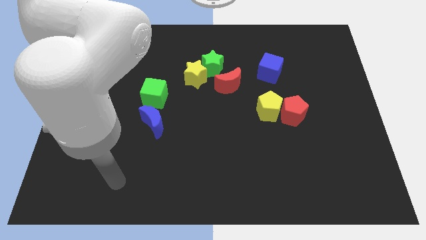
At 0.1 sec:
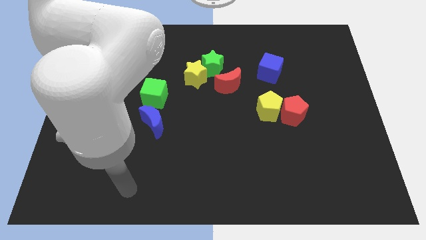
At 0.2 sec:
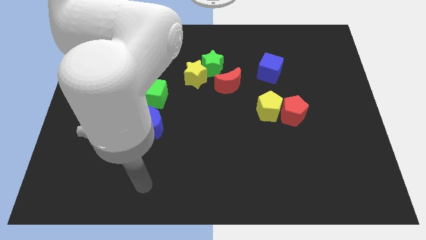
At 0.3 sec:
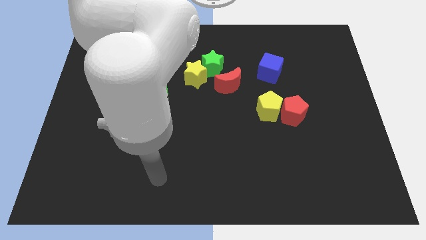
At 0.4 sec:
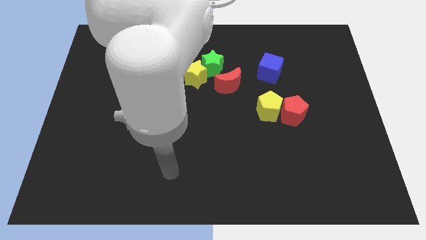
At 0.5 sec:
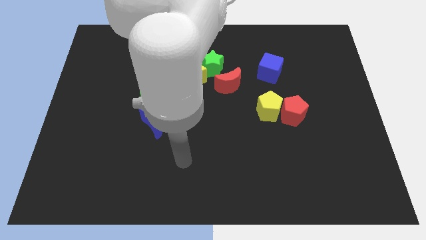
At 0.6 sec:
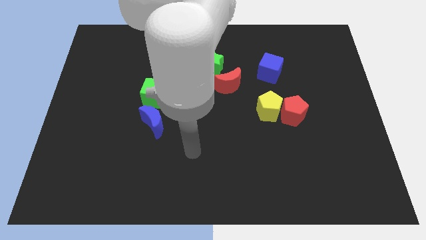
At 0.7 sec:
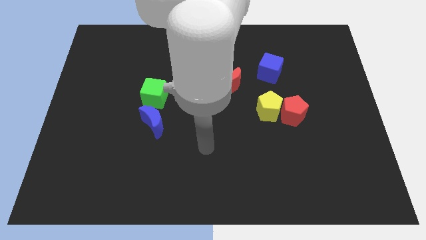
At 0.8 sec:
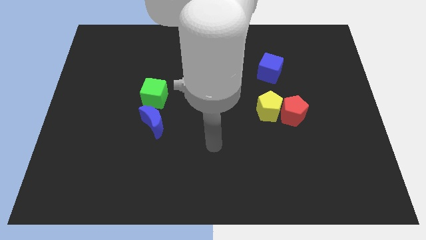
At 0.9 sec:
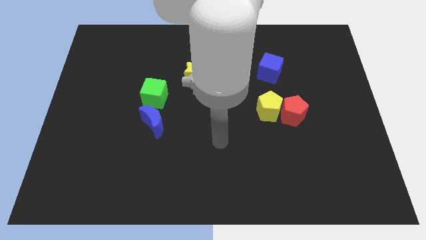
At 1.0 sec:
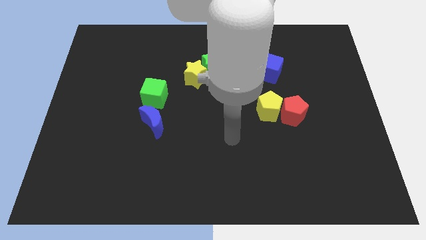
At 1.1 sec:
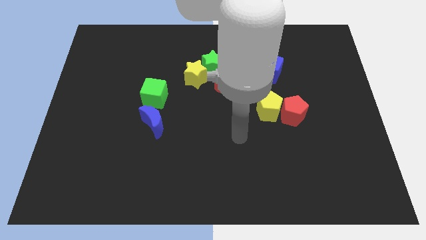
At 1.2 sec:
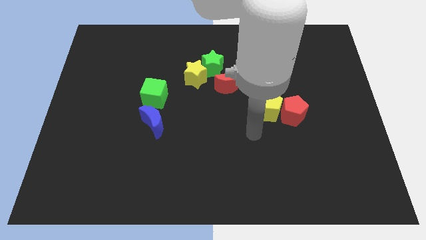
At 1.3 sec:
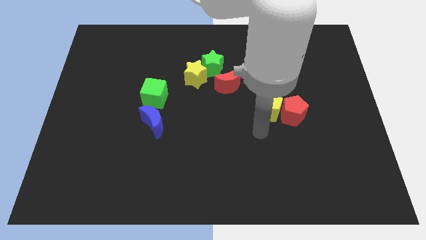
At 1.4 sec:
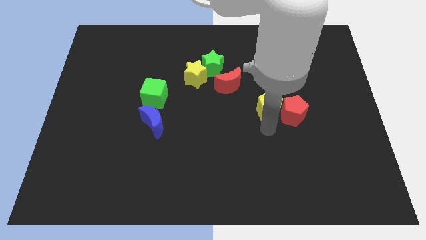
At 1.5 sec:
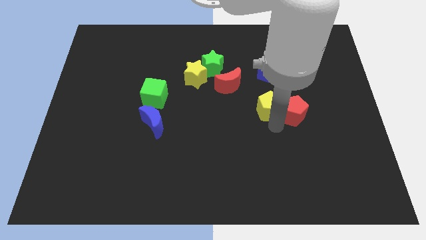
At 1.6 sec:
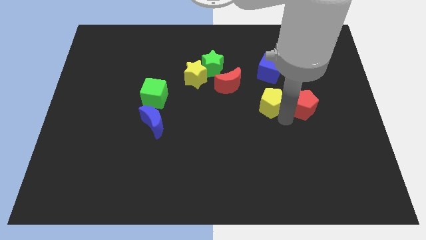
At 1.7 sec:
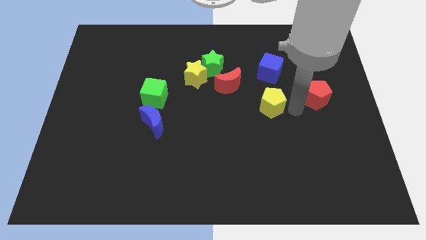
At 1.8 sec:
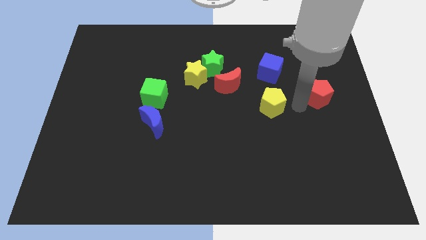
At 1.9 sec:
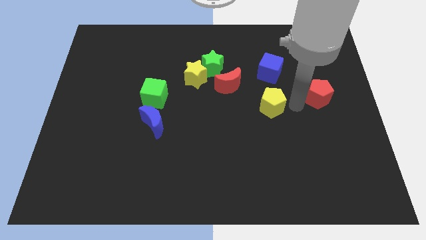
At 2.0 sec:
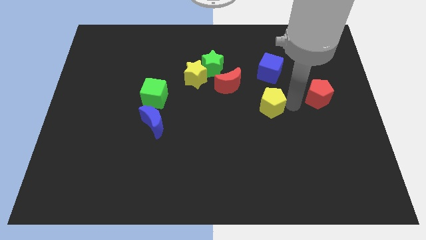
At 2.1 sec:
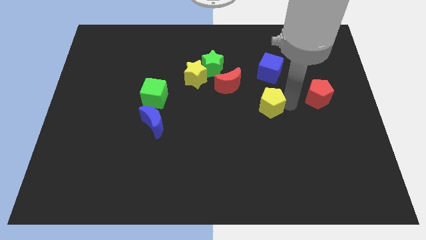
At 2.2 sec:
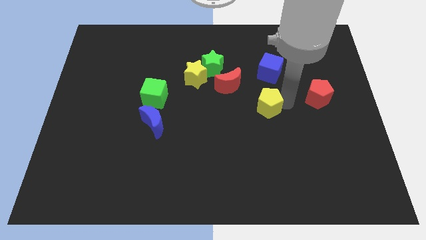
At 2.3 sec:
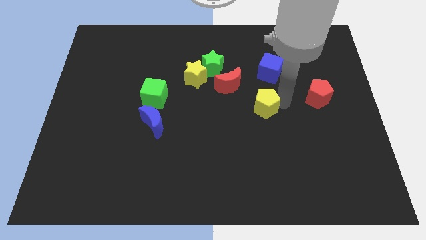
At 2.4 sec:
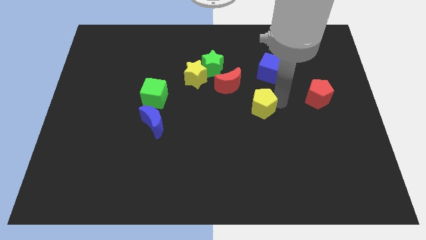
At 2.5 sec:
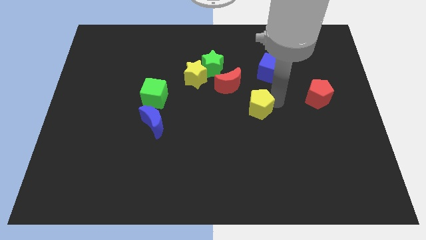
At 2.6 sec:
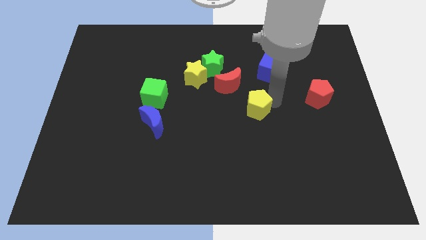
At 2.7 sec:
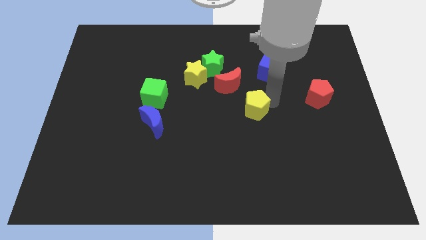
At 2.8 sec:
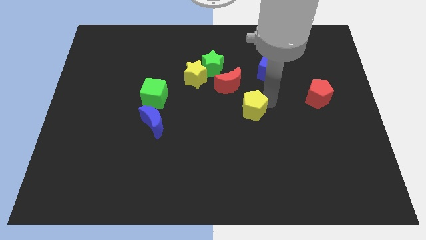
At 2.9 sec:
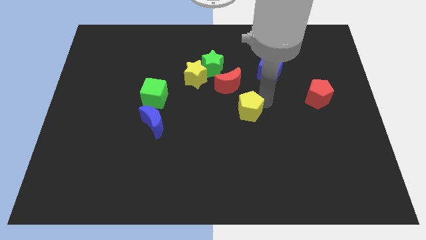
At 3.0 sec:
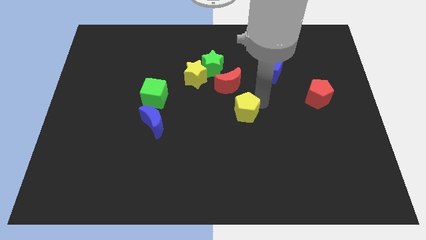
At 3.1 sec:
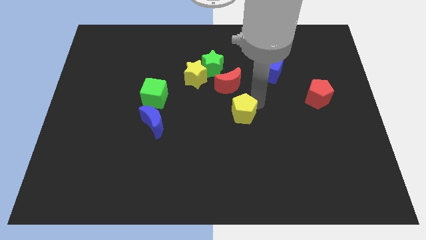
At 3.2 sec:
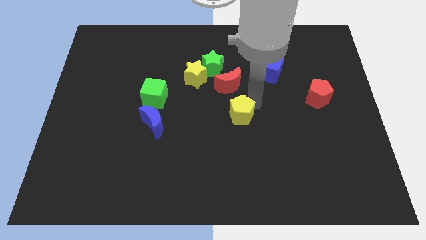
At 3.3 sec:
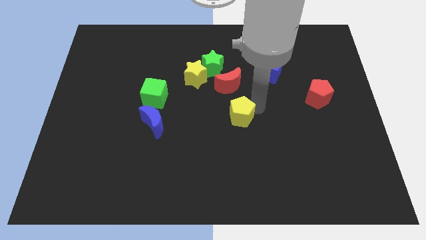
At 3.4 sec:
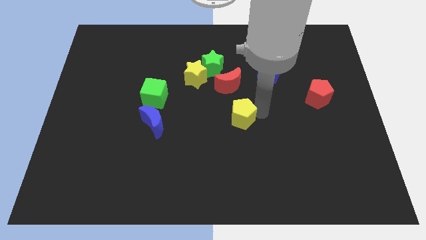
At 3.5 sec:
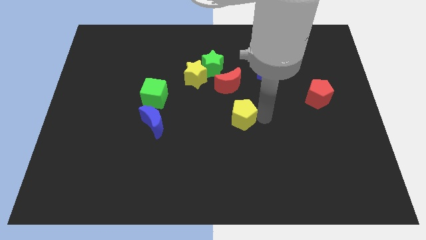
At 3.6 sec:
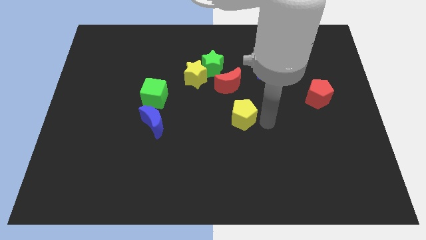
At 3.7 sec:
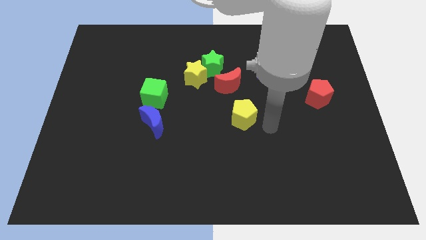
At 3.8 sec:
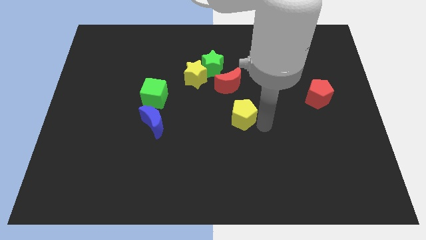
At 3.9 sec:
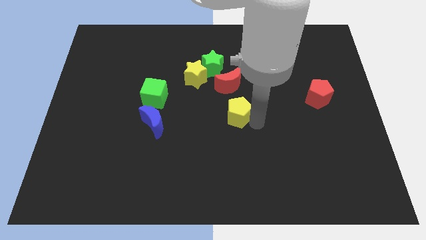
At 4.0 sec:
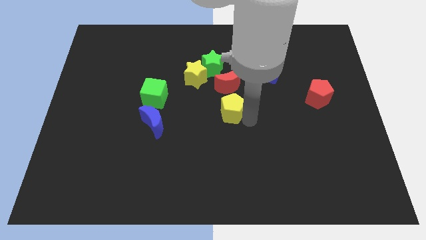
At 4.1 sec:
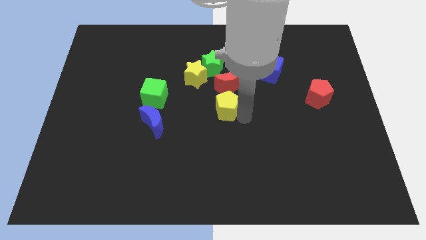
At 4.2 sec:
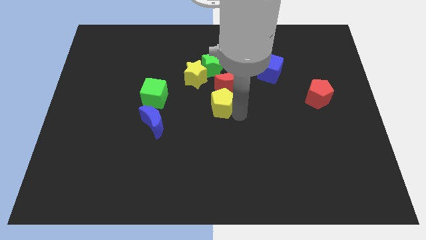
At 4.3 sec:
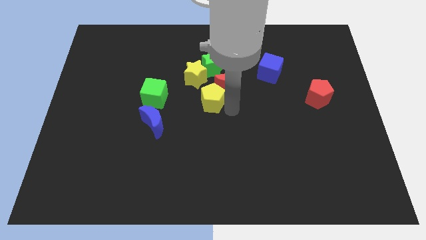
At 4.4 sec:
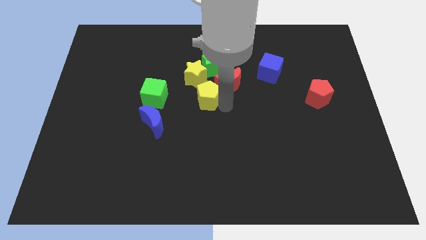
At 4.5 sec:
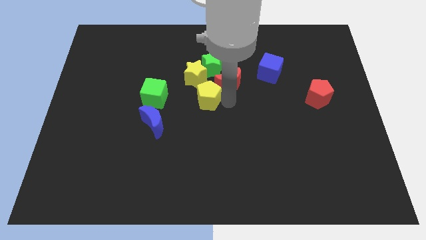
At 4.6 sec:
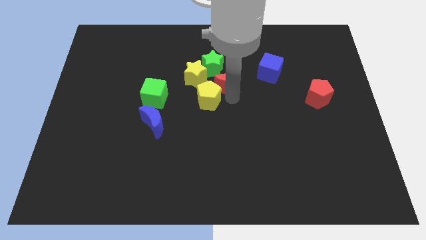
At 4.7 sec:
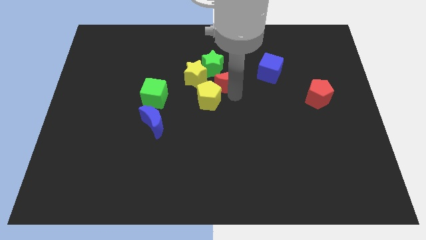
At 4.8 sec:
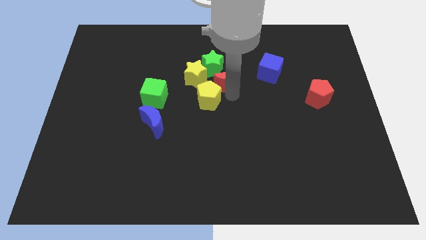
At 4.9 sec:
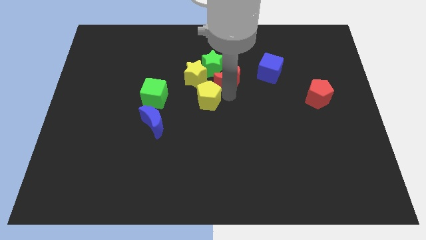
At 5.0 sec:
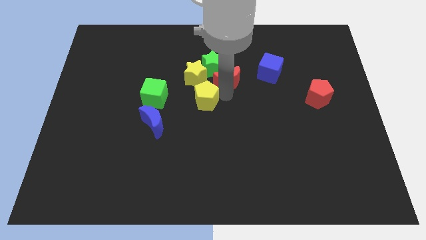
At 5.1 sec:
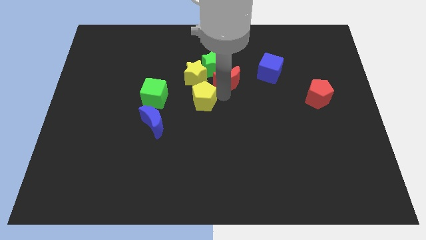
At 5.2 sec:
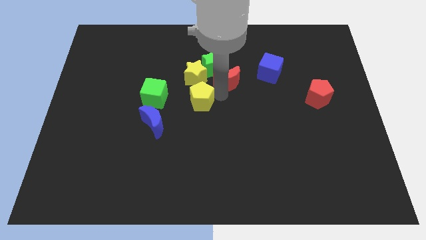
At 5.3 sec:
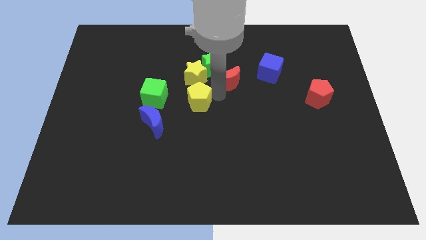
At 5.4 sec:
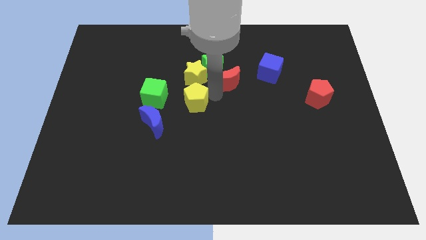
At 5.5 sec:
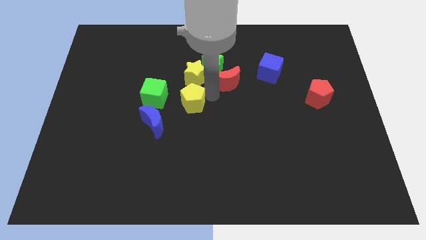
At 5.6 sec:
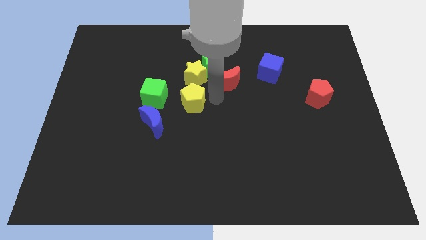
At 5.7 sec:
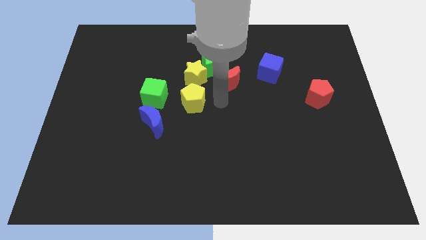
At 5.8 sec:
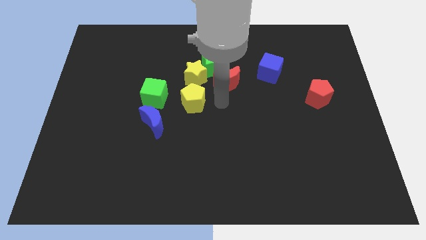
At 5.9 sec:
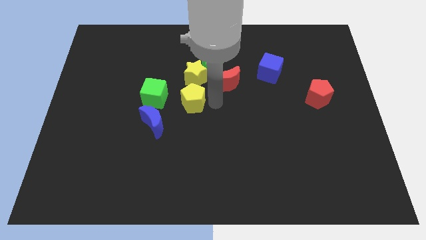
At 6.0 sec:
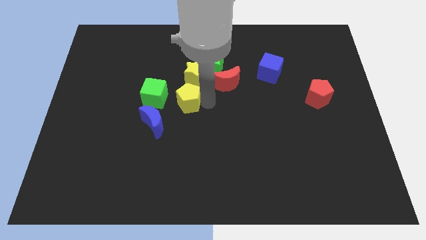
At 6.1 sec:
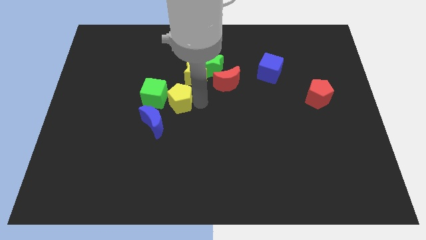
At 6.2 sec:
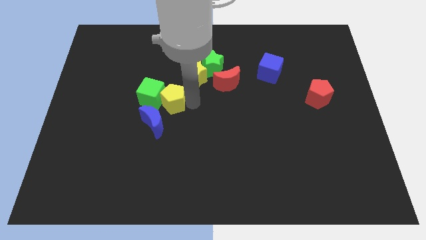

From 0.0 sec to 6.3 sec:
slide the yellow pentagon to the green cube
